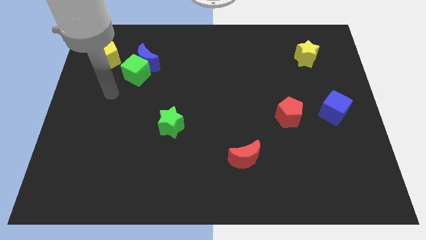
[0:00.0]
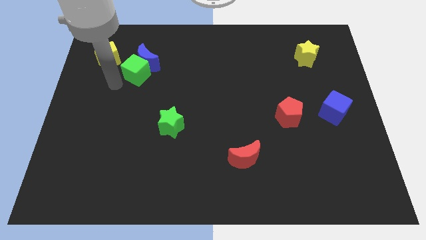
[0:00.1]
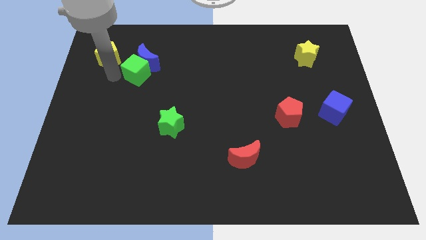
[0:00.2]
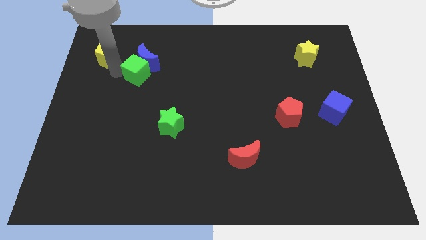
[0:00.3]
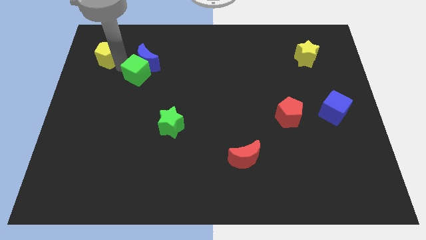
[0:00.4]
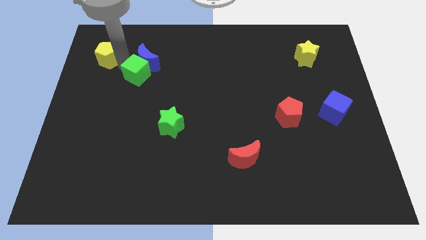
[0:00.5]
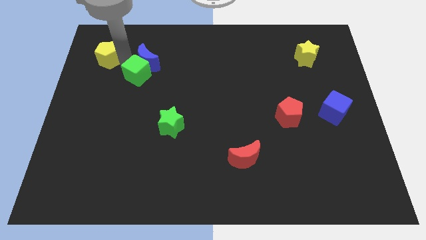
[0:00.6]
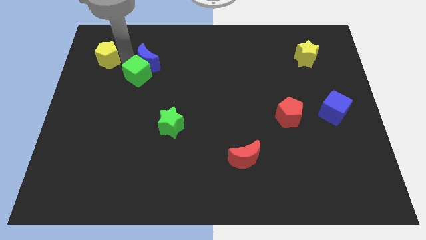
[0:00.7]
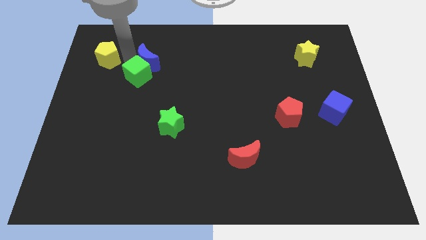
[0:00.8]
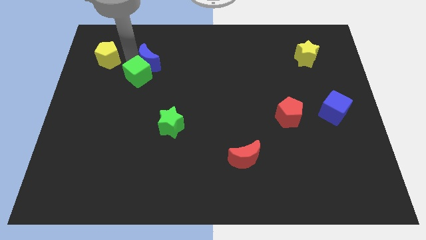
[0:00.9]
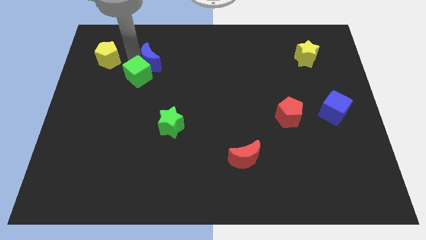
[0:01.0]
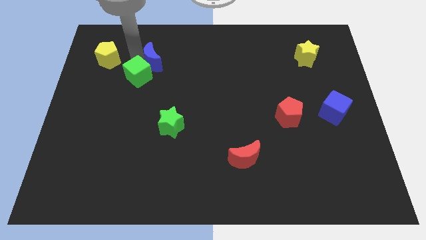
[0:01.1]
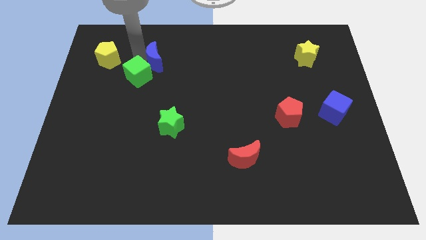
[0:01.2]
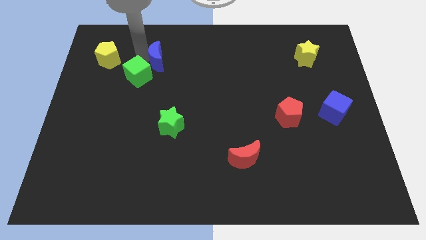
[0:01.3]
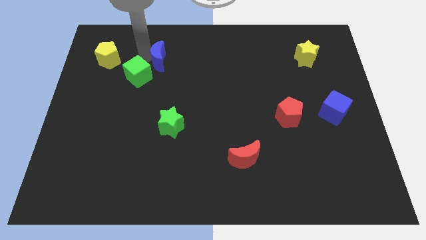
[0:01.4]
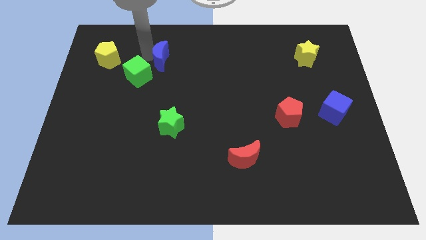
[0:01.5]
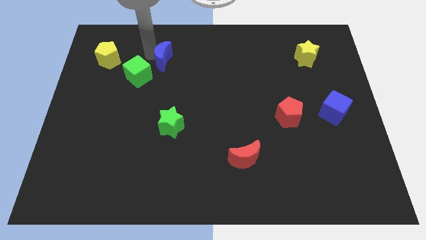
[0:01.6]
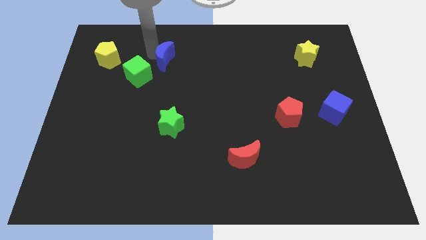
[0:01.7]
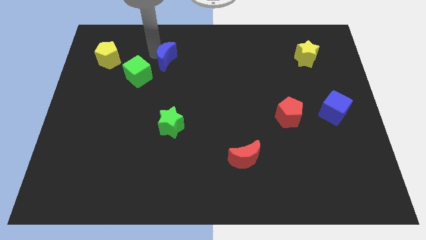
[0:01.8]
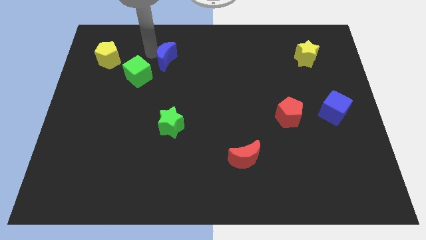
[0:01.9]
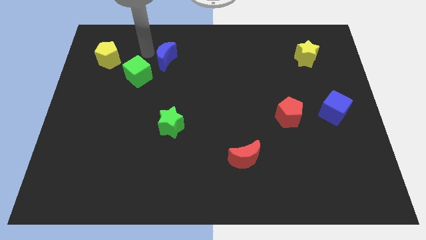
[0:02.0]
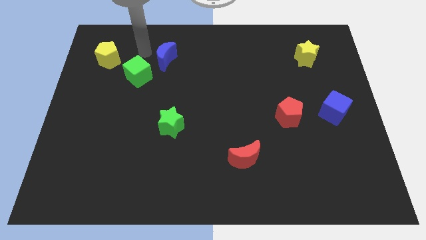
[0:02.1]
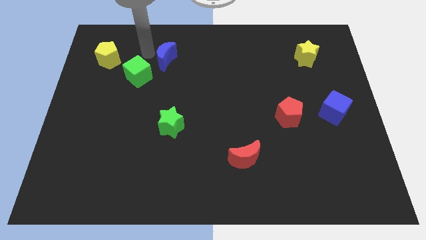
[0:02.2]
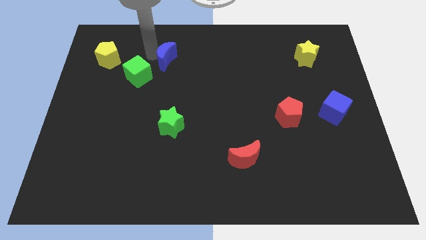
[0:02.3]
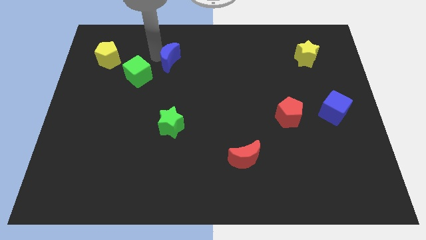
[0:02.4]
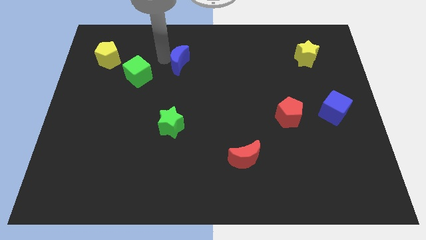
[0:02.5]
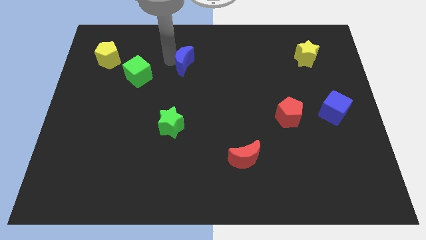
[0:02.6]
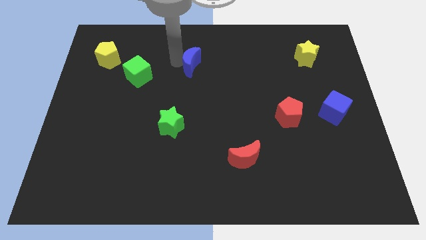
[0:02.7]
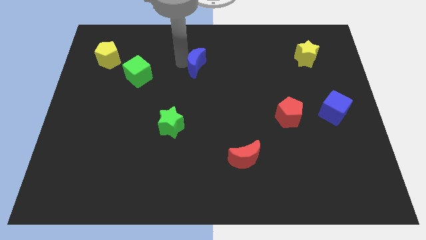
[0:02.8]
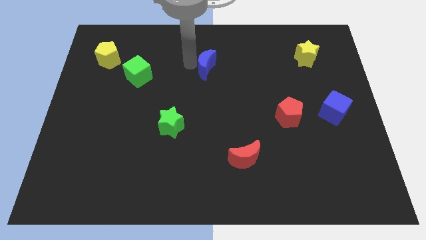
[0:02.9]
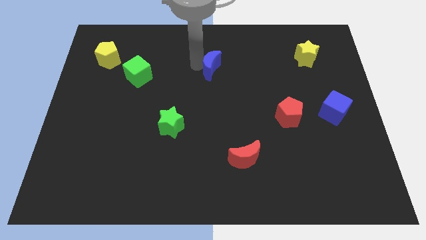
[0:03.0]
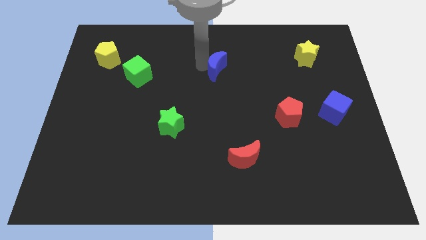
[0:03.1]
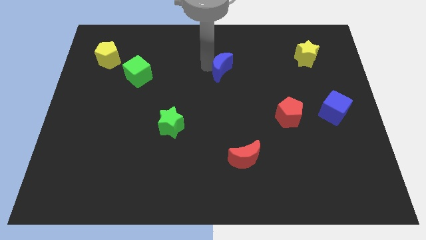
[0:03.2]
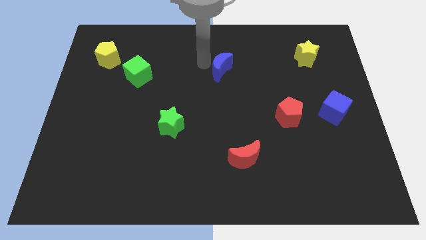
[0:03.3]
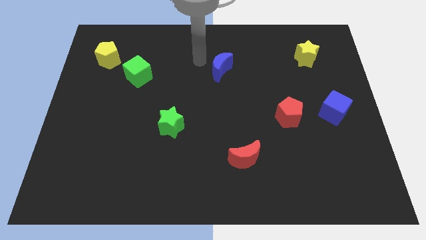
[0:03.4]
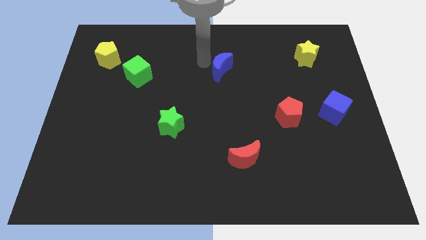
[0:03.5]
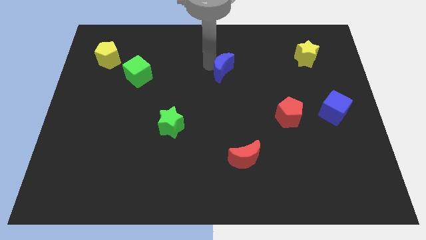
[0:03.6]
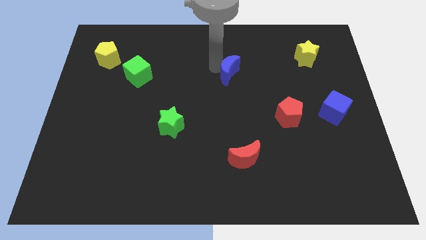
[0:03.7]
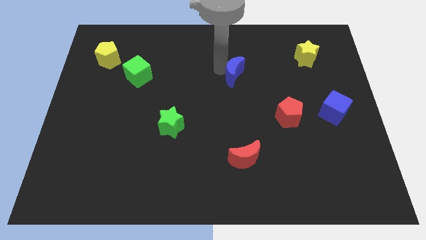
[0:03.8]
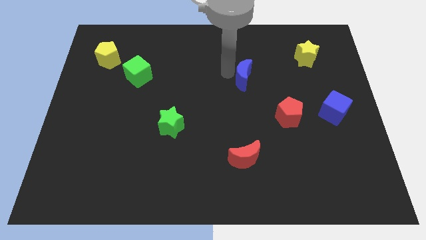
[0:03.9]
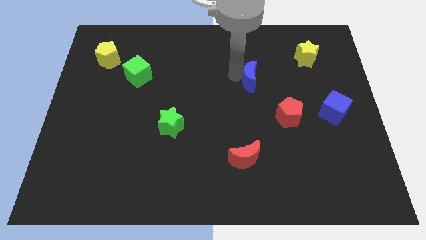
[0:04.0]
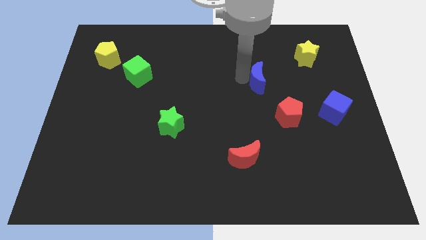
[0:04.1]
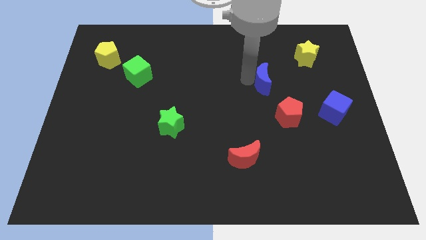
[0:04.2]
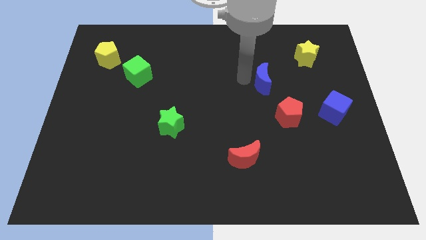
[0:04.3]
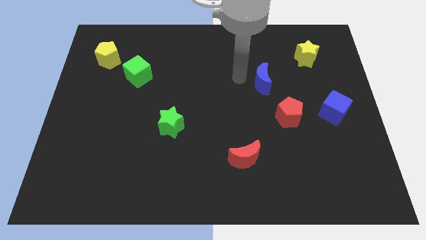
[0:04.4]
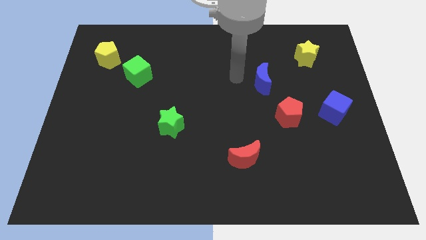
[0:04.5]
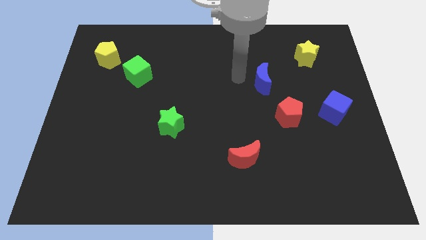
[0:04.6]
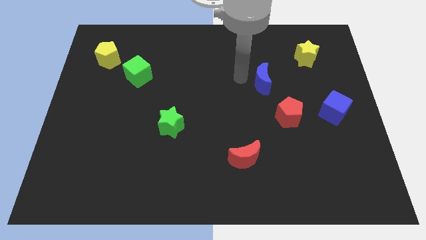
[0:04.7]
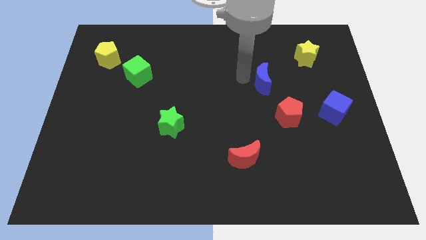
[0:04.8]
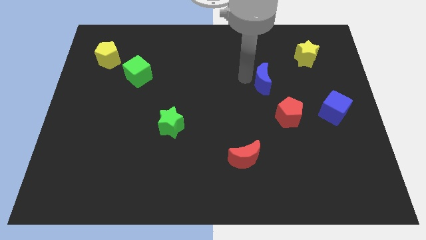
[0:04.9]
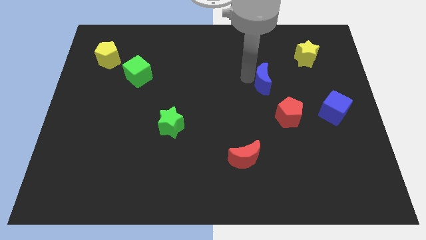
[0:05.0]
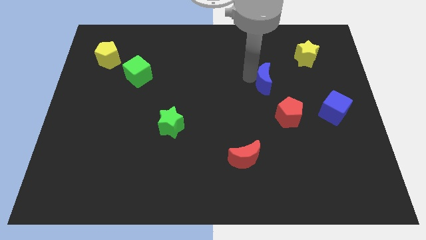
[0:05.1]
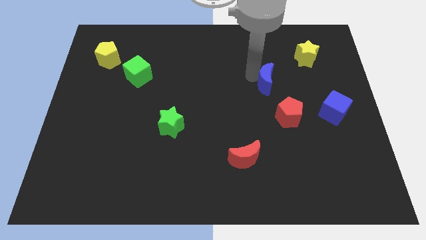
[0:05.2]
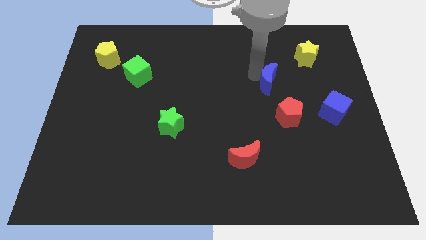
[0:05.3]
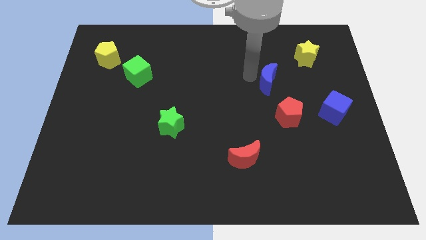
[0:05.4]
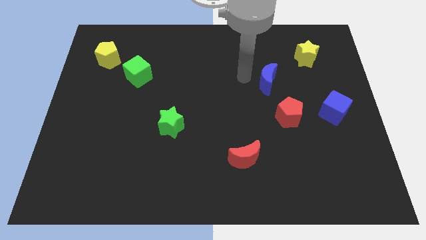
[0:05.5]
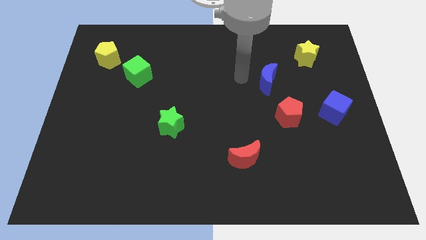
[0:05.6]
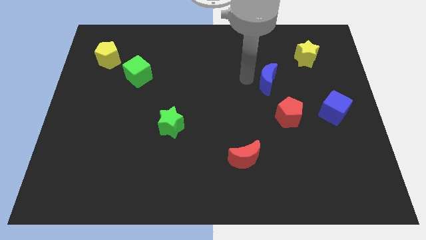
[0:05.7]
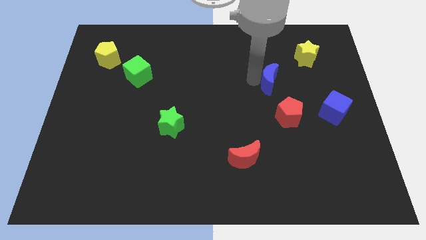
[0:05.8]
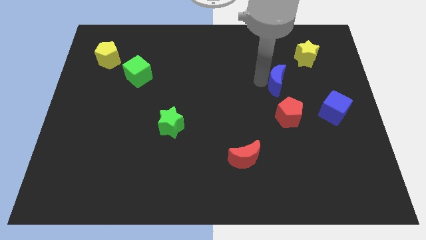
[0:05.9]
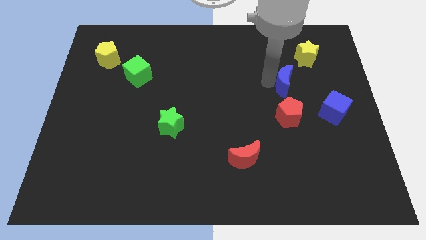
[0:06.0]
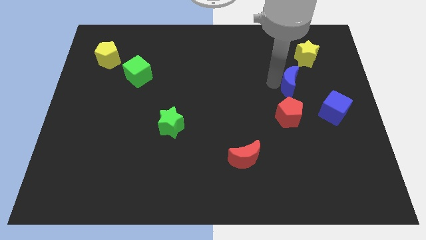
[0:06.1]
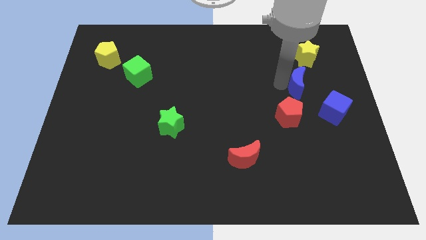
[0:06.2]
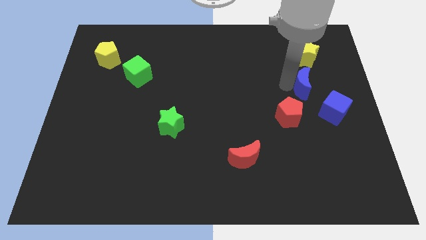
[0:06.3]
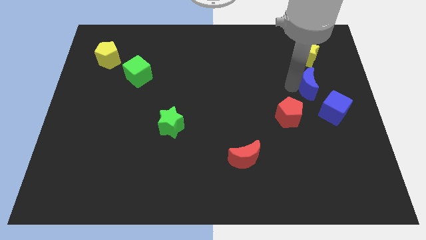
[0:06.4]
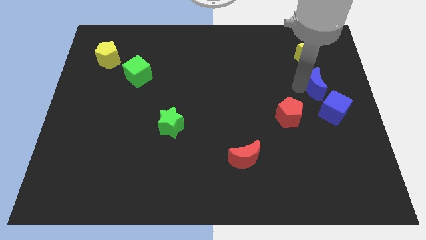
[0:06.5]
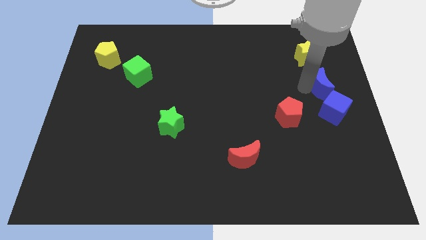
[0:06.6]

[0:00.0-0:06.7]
move the blue moon to the right side of the board
